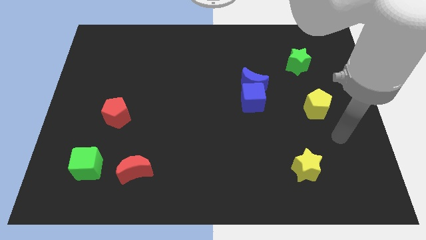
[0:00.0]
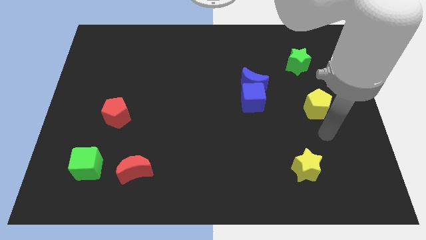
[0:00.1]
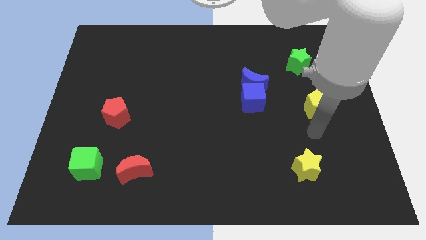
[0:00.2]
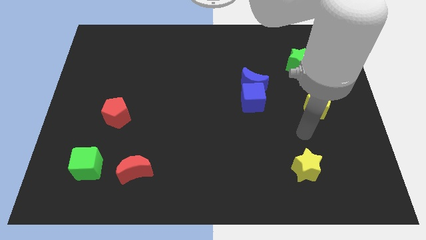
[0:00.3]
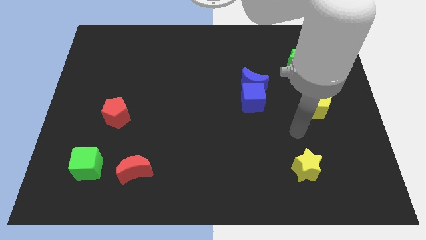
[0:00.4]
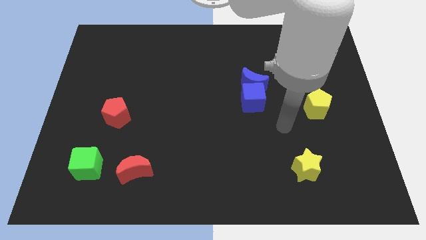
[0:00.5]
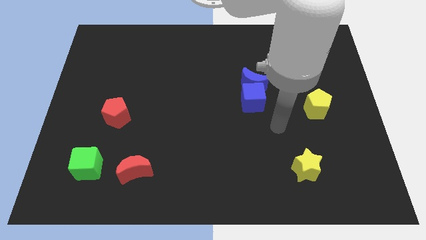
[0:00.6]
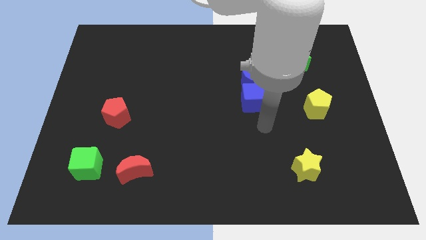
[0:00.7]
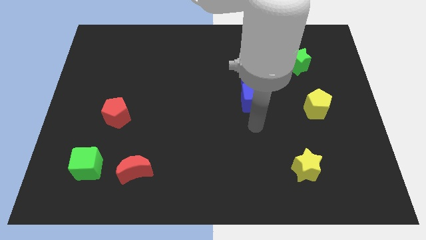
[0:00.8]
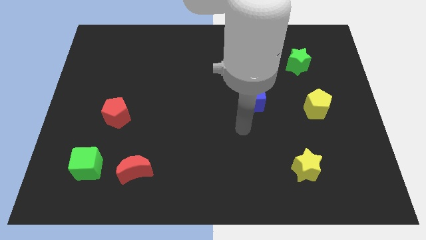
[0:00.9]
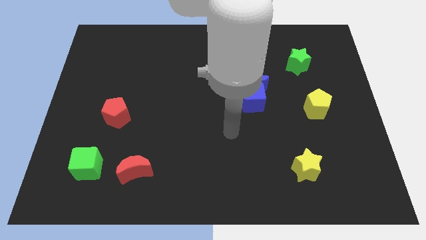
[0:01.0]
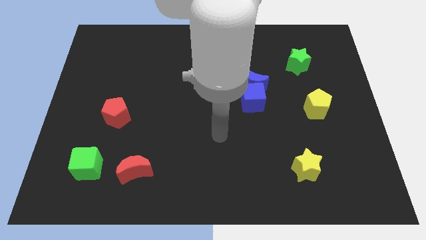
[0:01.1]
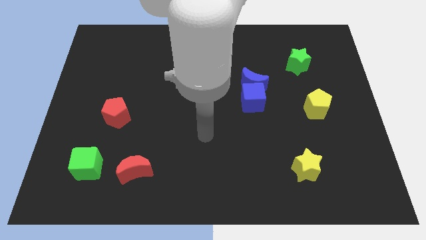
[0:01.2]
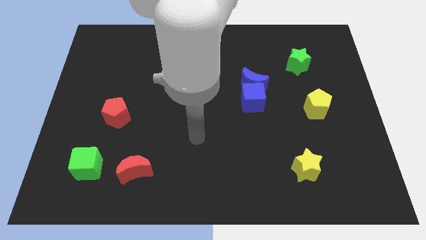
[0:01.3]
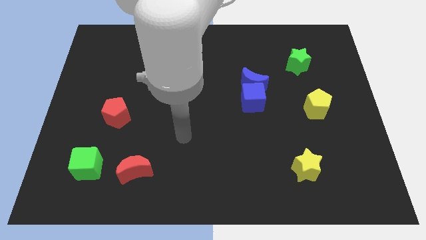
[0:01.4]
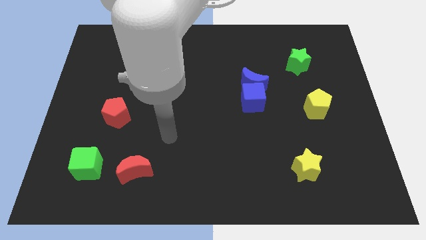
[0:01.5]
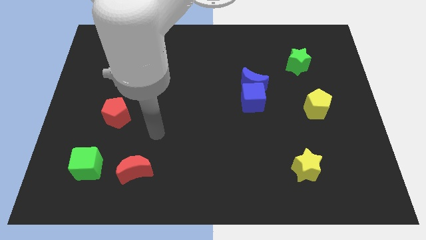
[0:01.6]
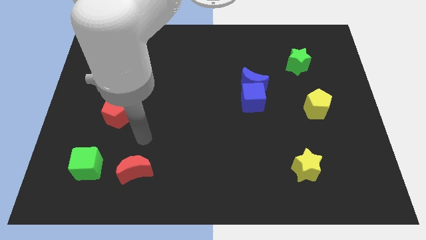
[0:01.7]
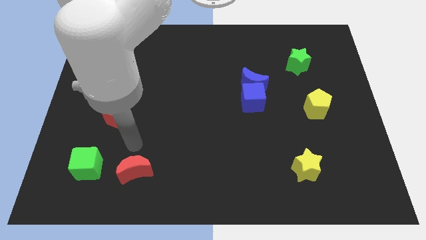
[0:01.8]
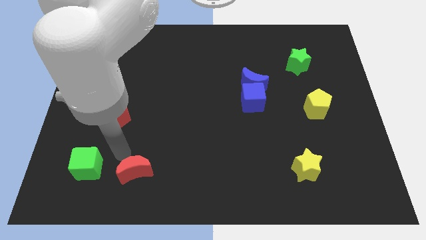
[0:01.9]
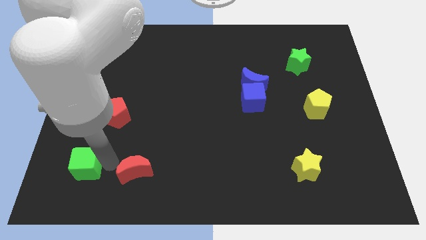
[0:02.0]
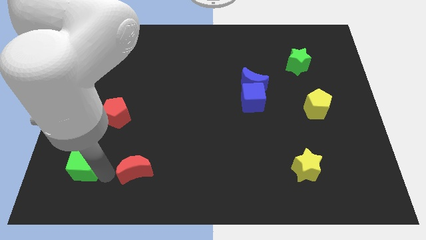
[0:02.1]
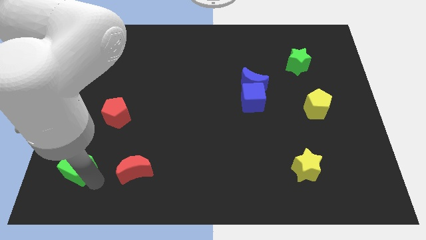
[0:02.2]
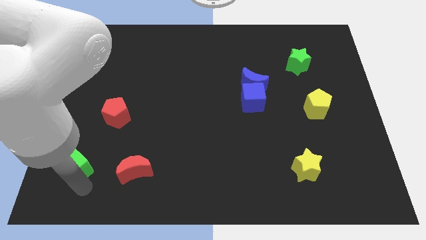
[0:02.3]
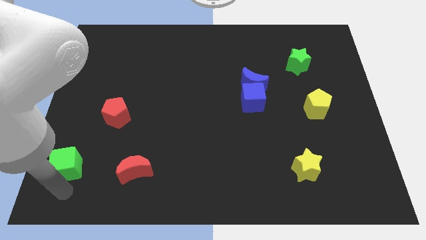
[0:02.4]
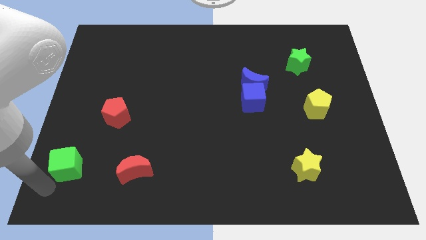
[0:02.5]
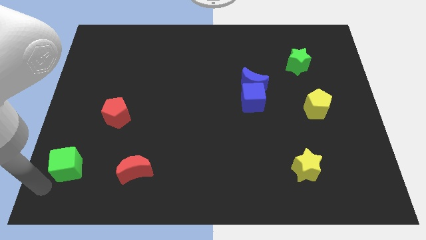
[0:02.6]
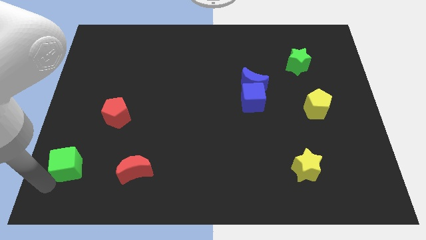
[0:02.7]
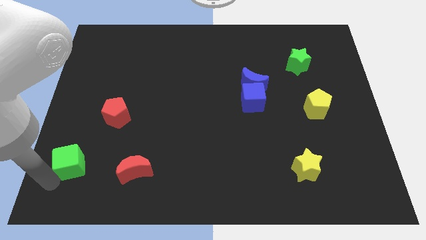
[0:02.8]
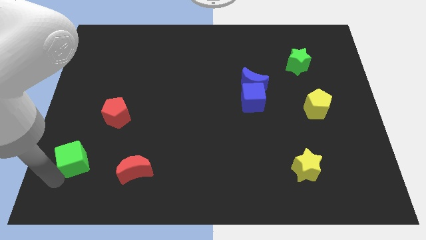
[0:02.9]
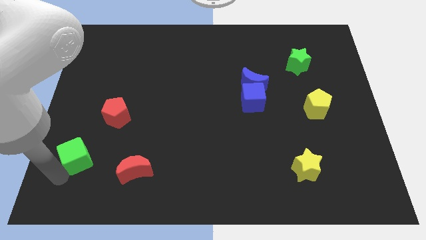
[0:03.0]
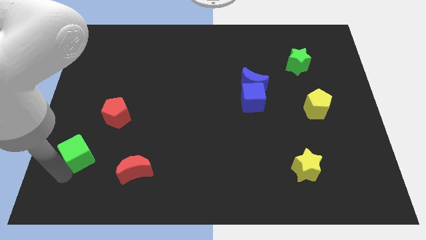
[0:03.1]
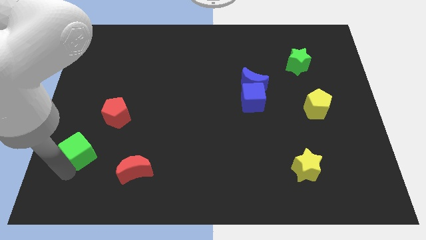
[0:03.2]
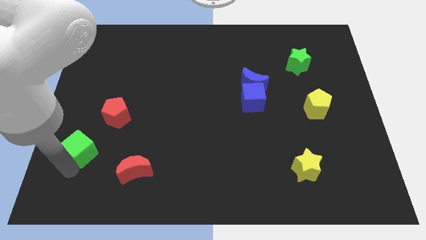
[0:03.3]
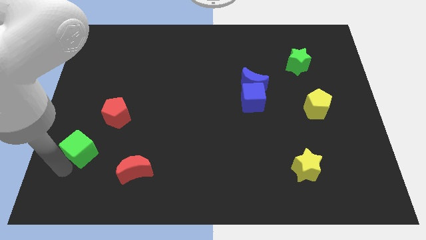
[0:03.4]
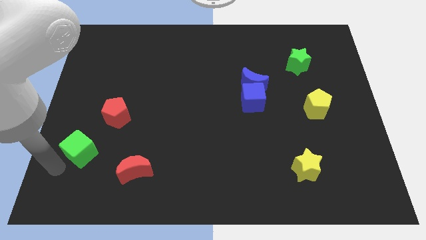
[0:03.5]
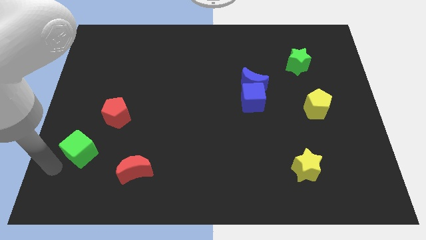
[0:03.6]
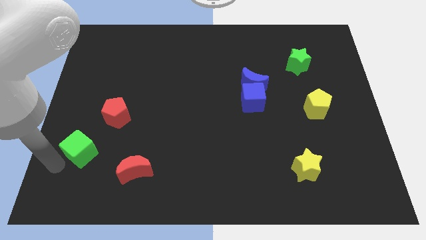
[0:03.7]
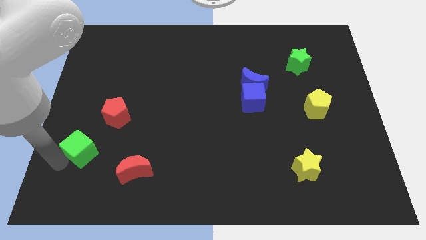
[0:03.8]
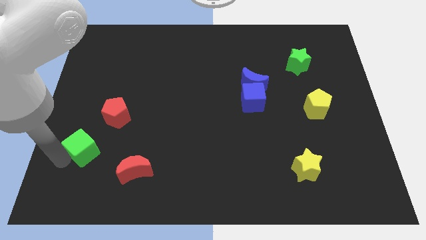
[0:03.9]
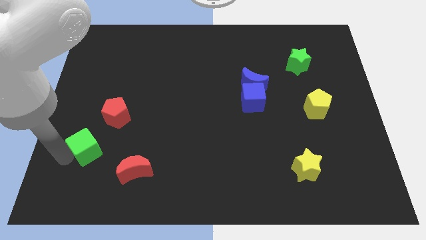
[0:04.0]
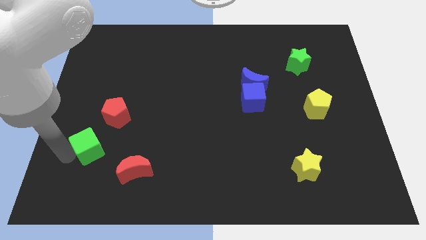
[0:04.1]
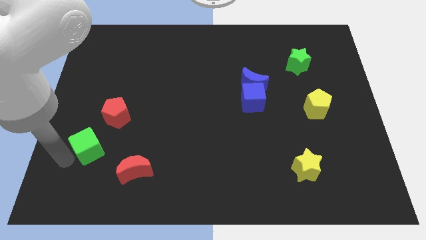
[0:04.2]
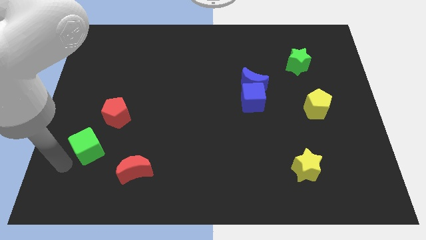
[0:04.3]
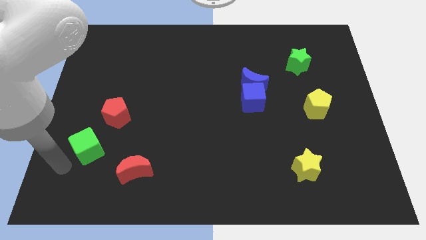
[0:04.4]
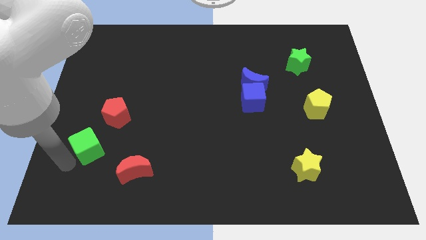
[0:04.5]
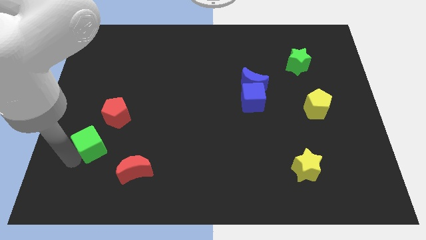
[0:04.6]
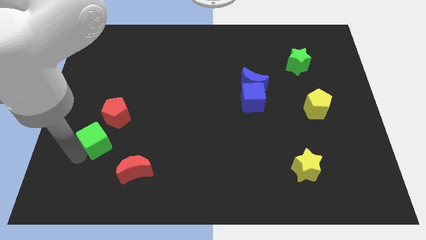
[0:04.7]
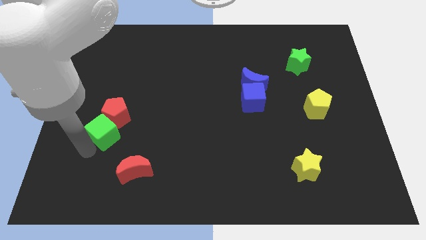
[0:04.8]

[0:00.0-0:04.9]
push the green cube next to the red pentagon

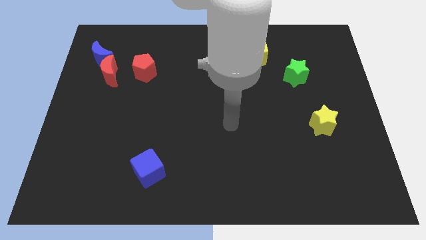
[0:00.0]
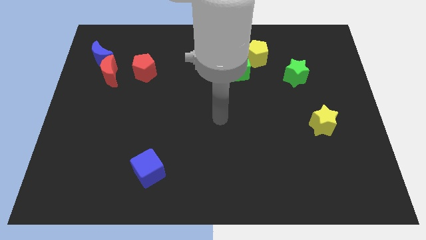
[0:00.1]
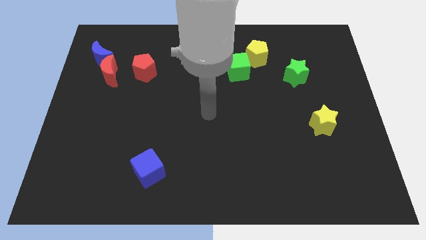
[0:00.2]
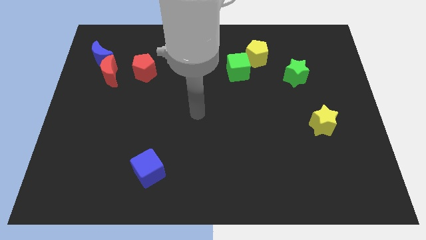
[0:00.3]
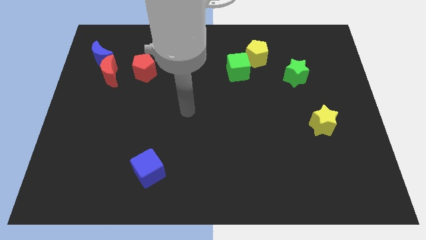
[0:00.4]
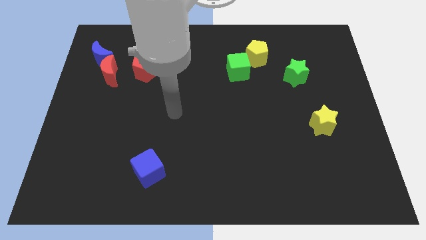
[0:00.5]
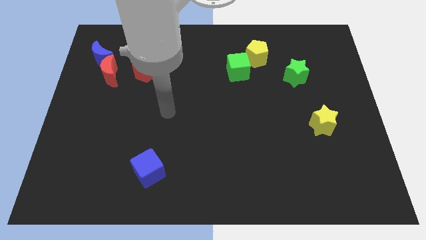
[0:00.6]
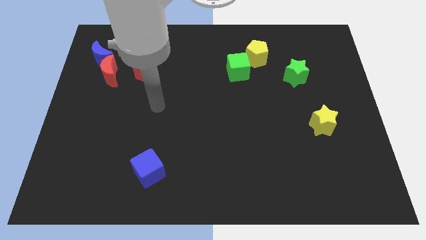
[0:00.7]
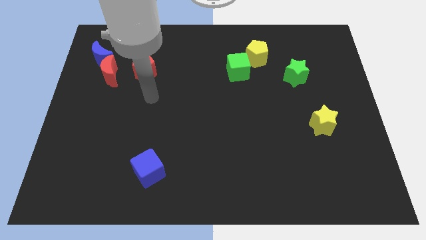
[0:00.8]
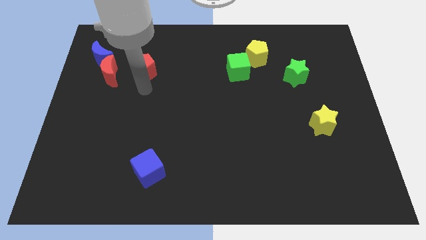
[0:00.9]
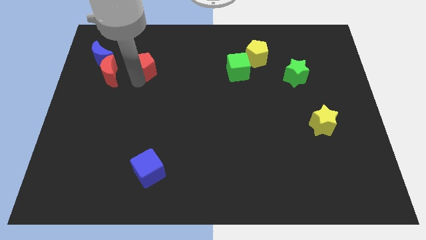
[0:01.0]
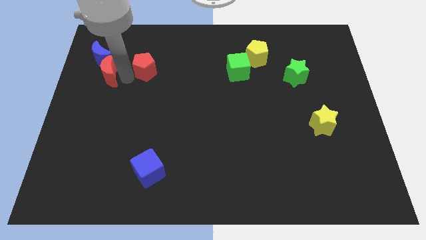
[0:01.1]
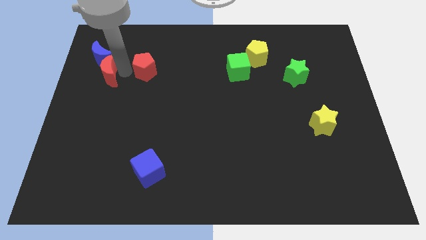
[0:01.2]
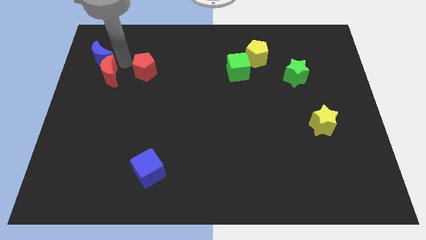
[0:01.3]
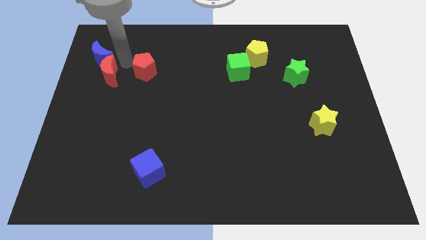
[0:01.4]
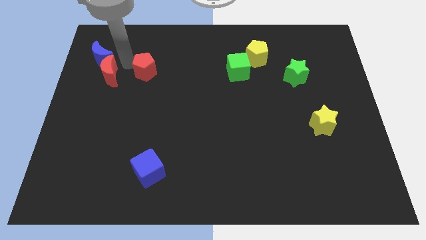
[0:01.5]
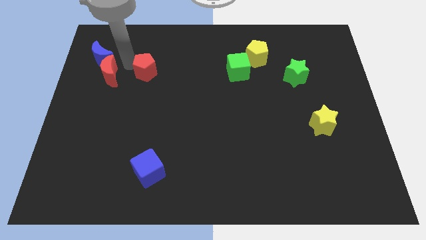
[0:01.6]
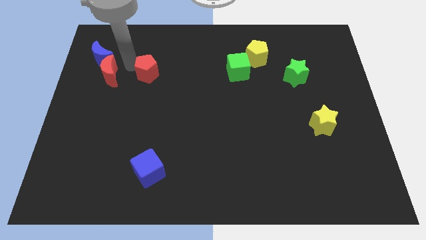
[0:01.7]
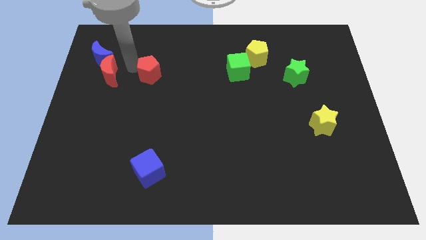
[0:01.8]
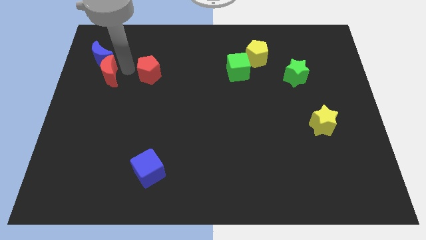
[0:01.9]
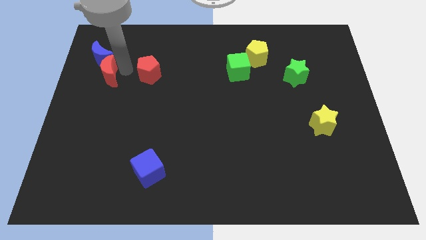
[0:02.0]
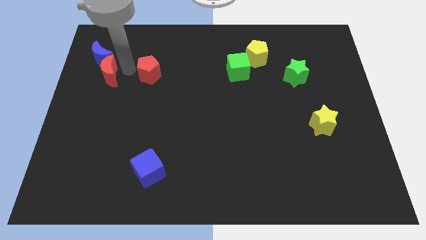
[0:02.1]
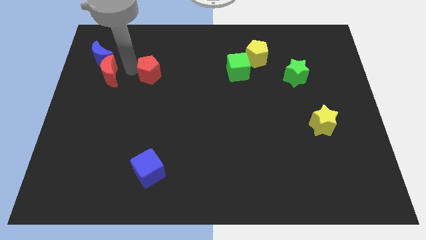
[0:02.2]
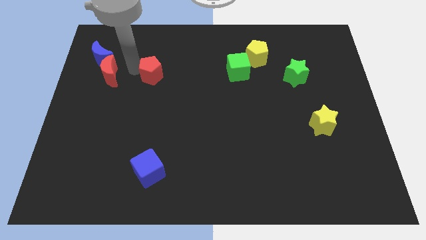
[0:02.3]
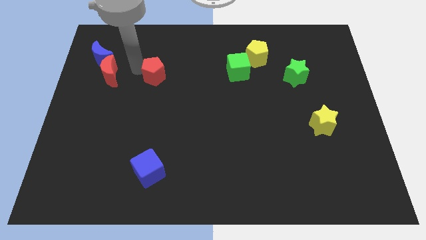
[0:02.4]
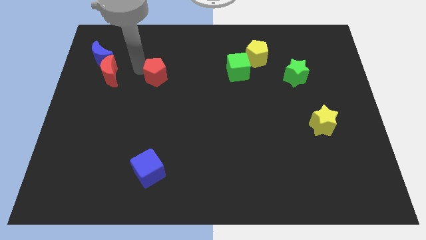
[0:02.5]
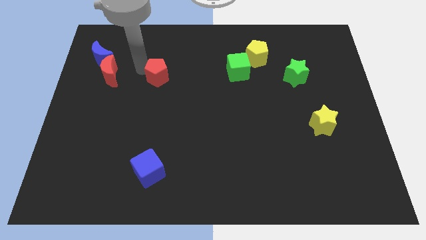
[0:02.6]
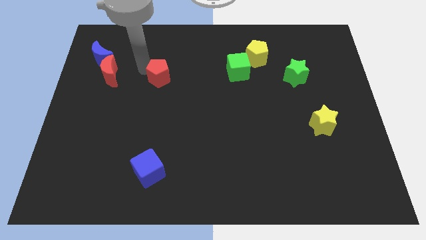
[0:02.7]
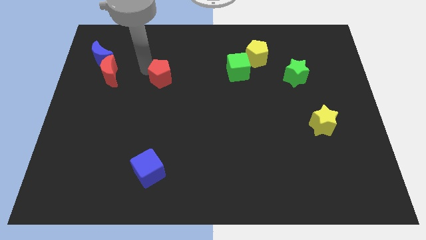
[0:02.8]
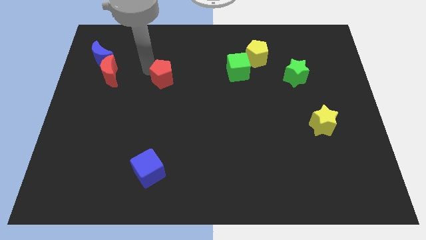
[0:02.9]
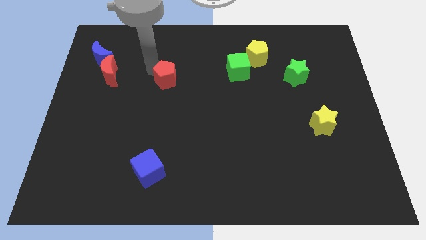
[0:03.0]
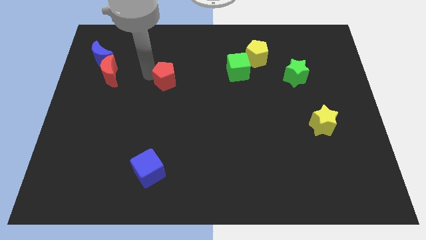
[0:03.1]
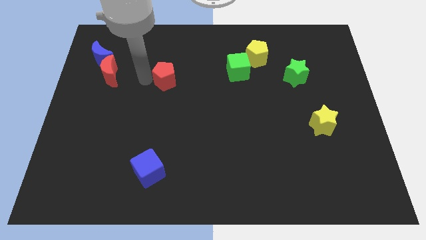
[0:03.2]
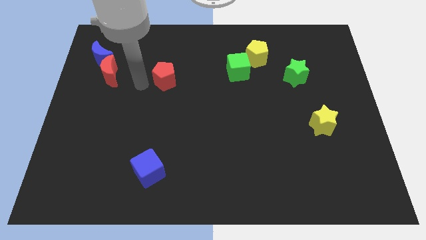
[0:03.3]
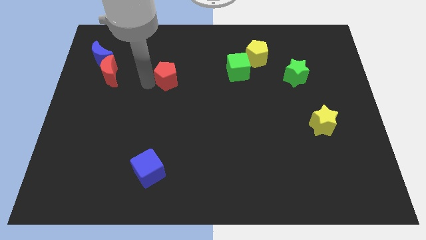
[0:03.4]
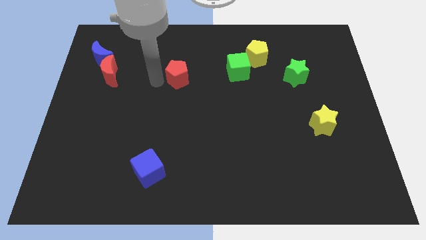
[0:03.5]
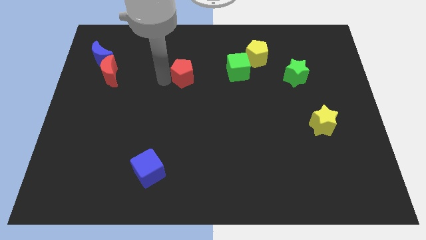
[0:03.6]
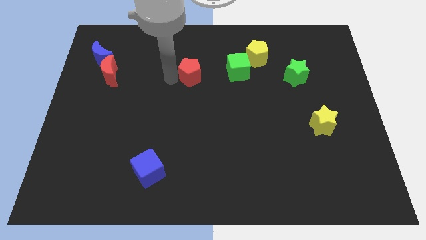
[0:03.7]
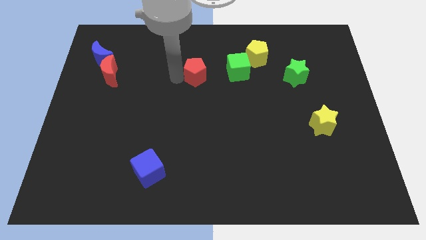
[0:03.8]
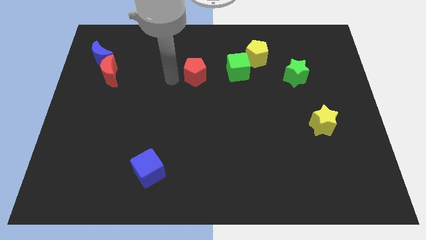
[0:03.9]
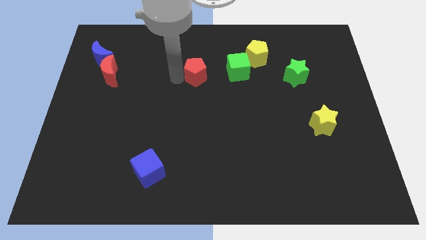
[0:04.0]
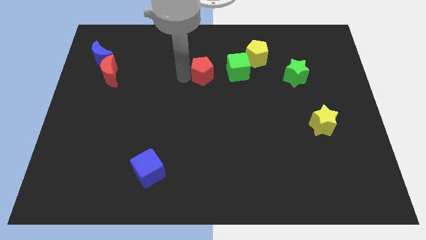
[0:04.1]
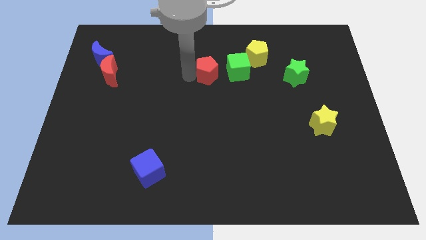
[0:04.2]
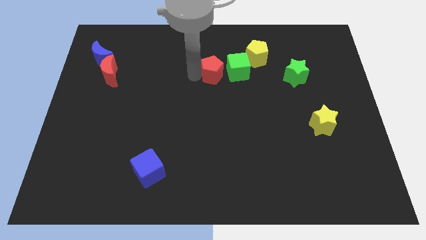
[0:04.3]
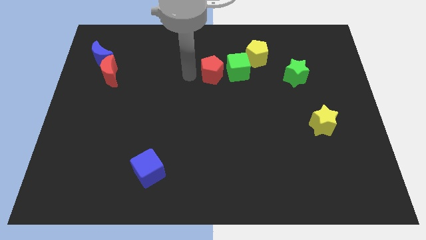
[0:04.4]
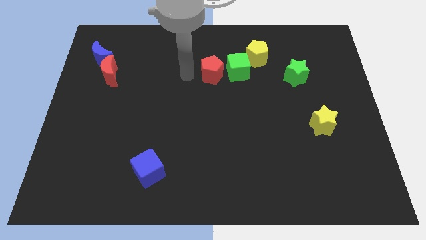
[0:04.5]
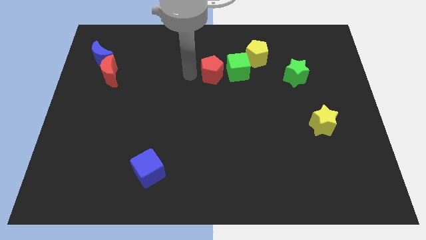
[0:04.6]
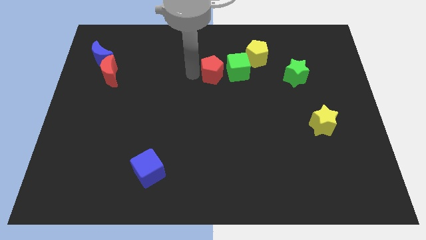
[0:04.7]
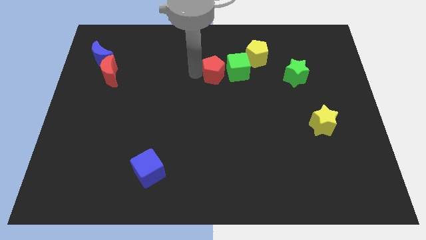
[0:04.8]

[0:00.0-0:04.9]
push the red pentagon towards the green cube
